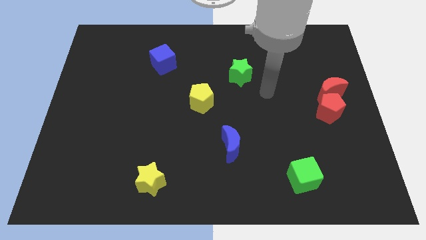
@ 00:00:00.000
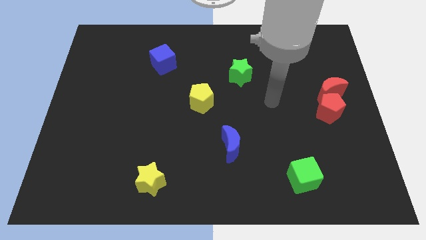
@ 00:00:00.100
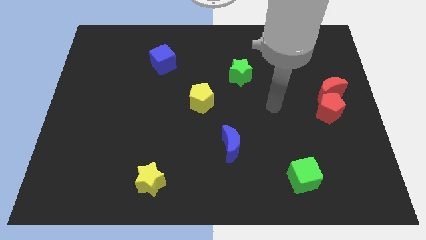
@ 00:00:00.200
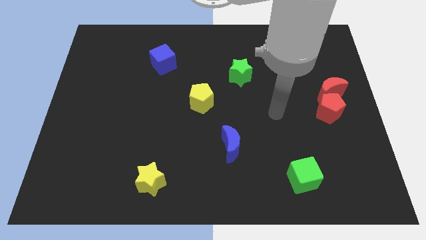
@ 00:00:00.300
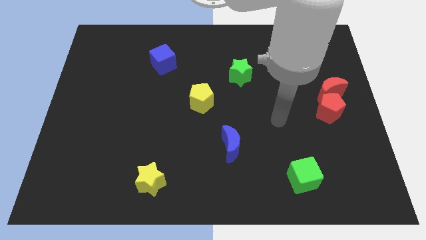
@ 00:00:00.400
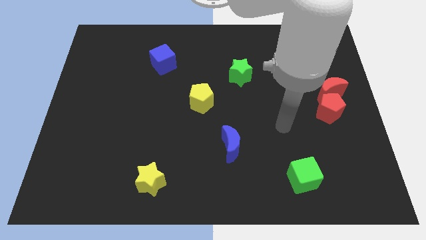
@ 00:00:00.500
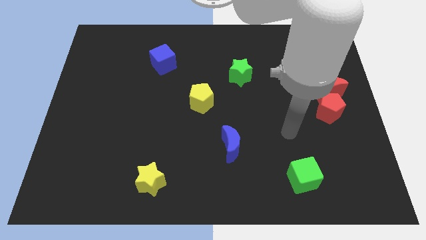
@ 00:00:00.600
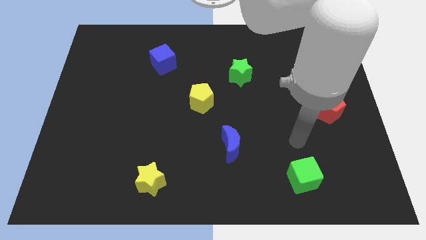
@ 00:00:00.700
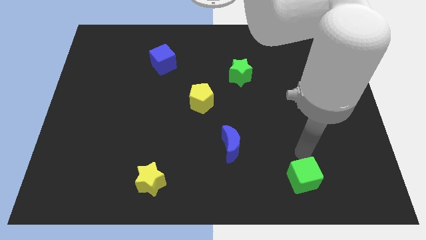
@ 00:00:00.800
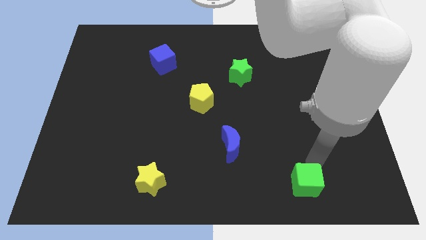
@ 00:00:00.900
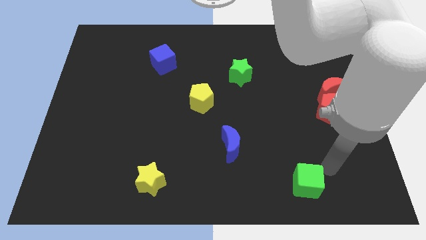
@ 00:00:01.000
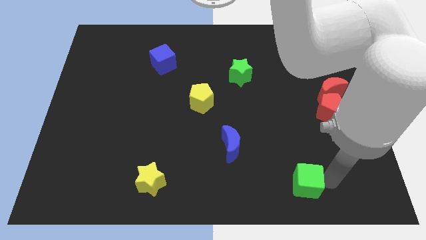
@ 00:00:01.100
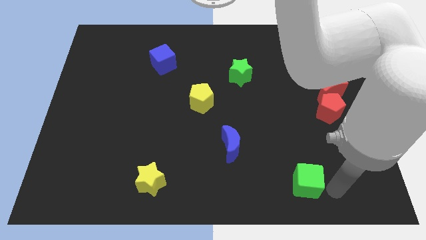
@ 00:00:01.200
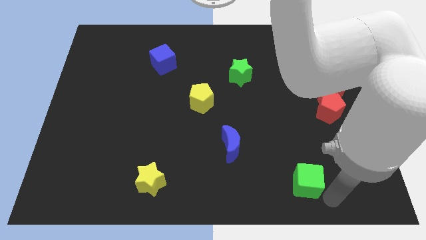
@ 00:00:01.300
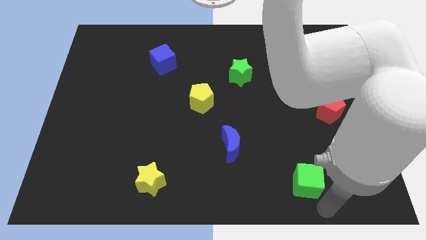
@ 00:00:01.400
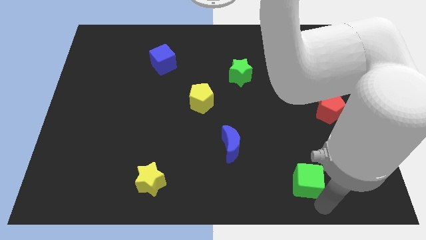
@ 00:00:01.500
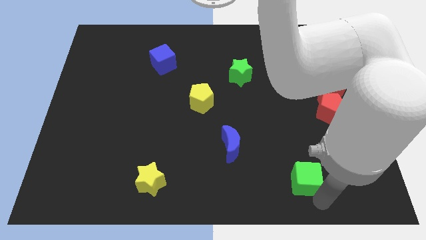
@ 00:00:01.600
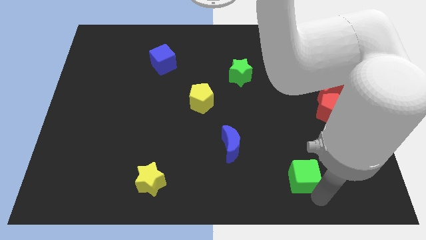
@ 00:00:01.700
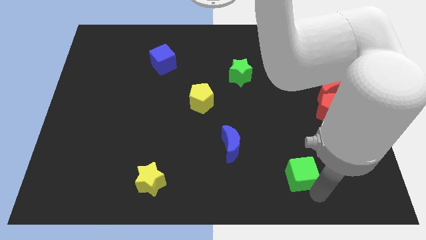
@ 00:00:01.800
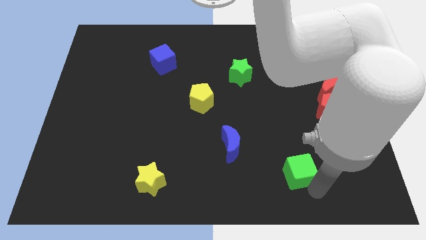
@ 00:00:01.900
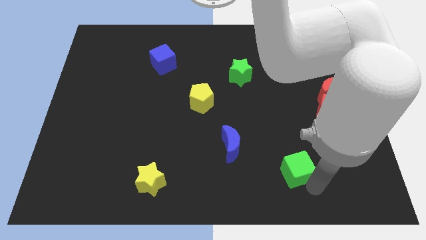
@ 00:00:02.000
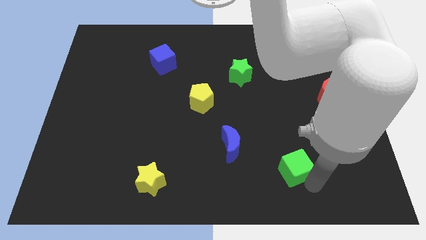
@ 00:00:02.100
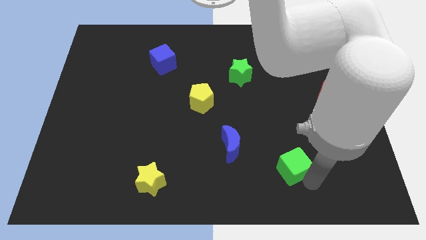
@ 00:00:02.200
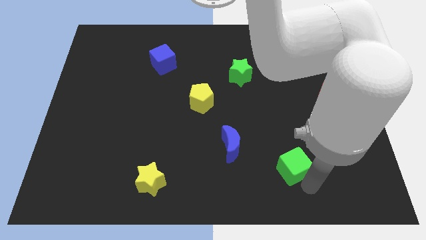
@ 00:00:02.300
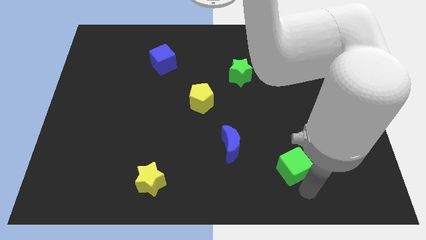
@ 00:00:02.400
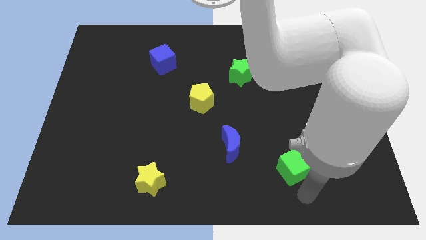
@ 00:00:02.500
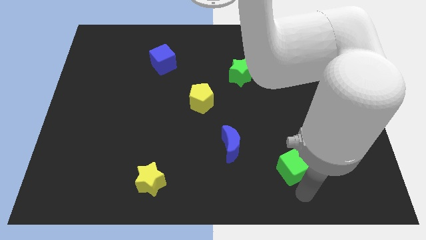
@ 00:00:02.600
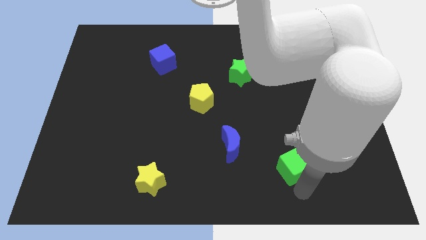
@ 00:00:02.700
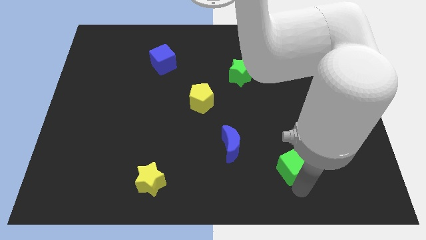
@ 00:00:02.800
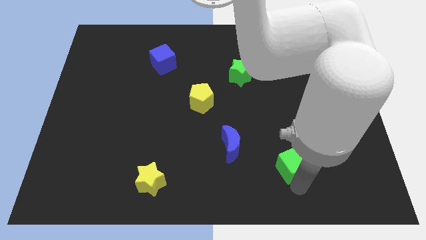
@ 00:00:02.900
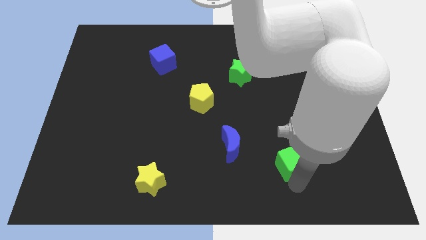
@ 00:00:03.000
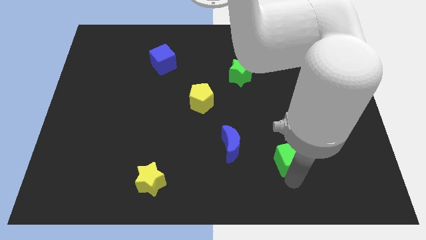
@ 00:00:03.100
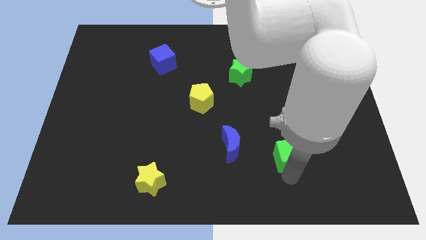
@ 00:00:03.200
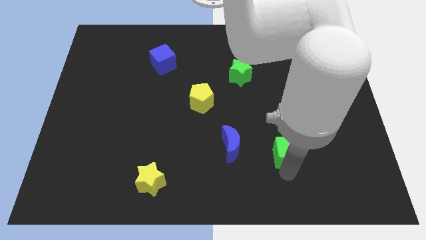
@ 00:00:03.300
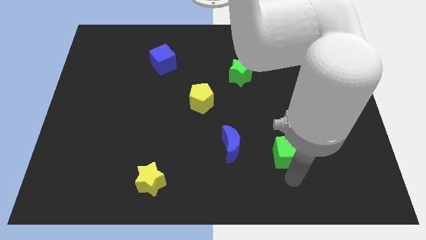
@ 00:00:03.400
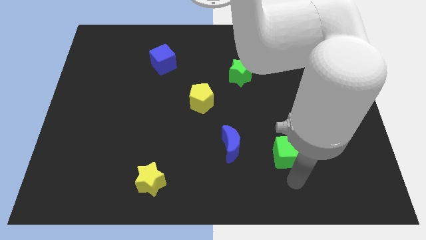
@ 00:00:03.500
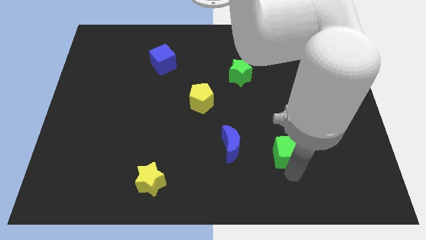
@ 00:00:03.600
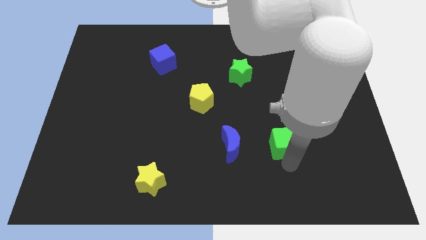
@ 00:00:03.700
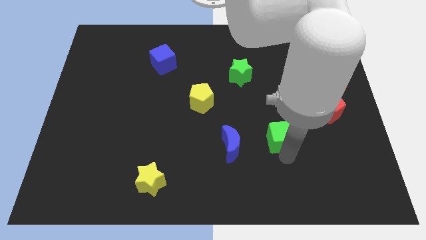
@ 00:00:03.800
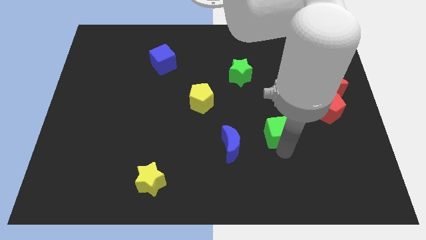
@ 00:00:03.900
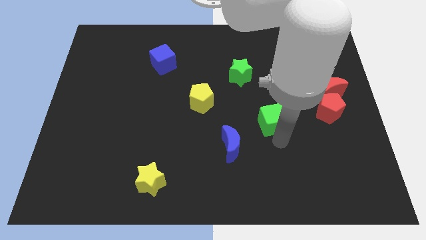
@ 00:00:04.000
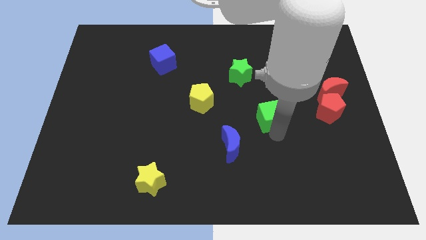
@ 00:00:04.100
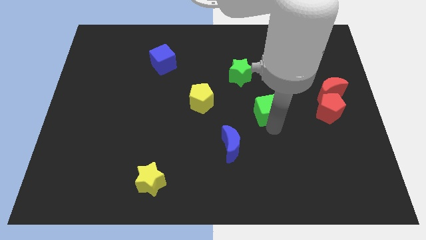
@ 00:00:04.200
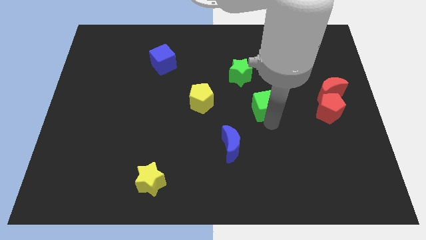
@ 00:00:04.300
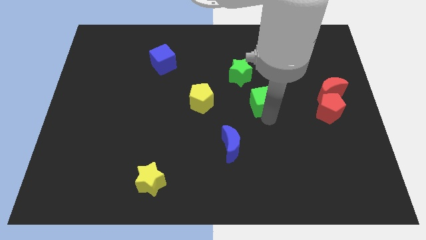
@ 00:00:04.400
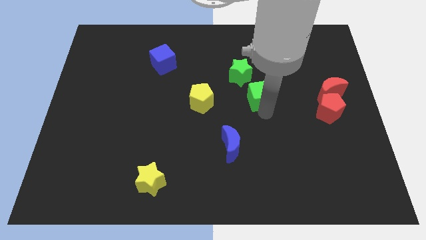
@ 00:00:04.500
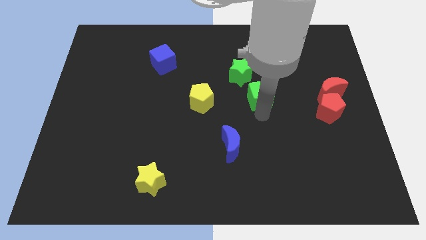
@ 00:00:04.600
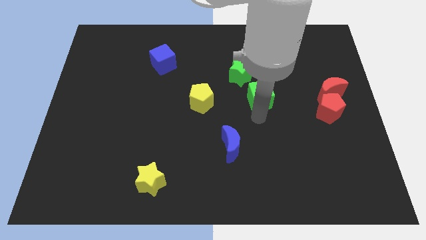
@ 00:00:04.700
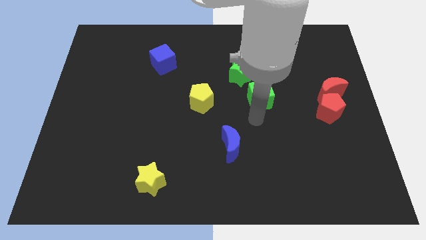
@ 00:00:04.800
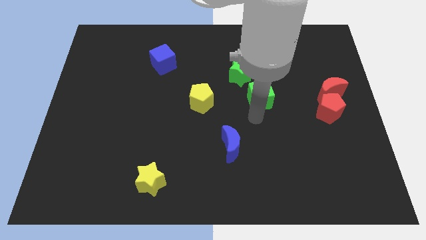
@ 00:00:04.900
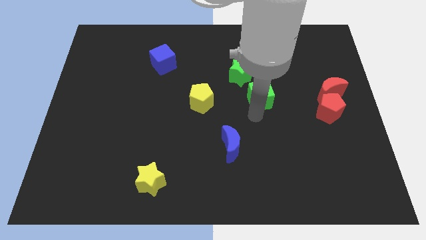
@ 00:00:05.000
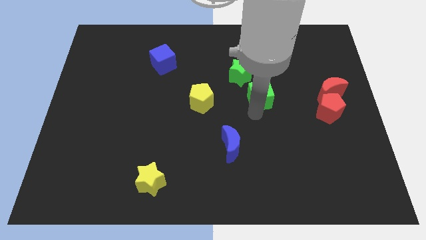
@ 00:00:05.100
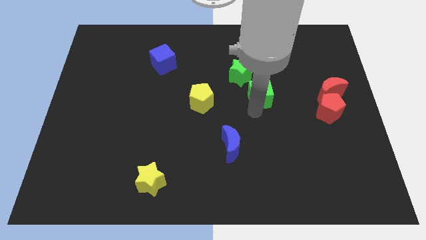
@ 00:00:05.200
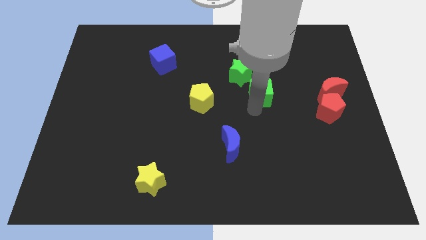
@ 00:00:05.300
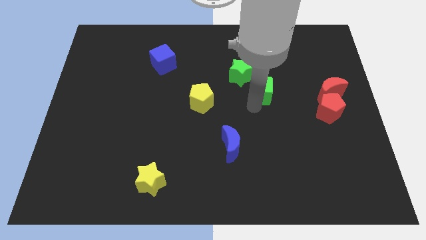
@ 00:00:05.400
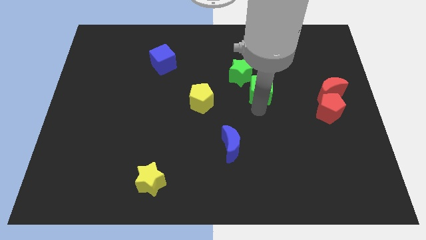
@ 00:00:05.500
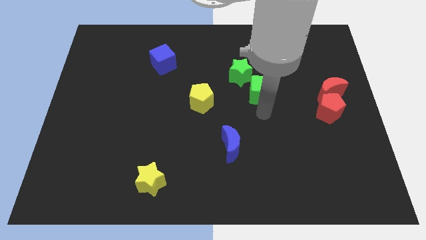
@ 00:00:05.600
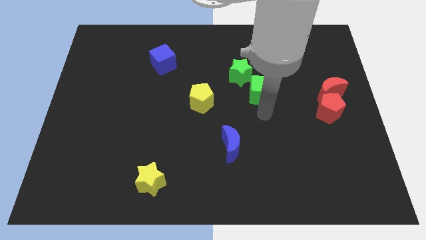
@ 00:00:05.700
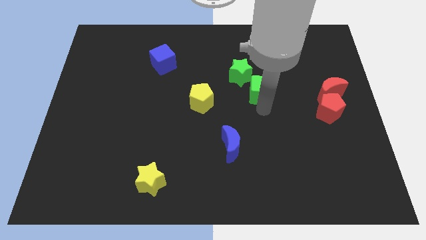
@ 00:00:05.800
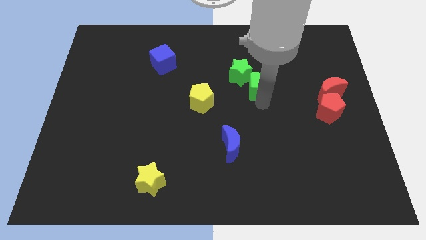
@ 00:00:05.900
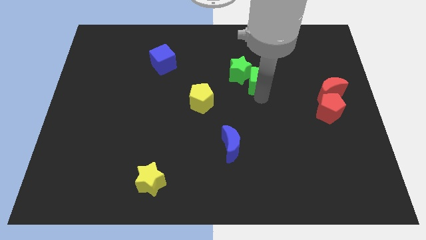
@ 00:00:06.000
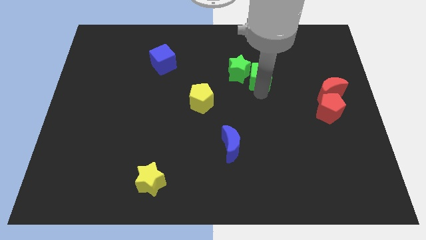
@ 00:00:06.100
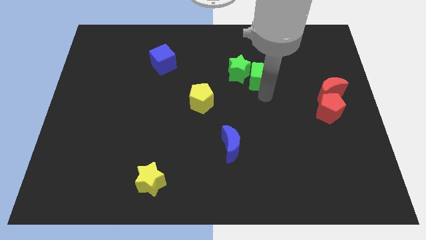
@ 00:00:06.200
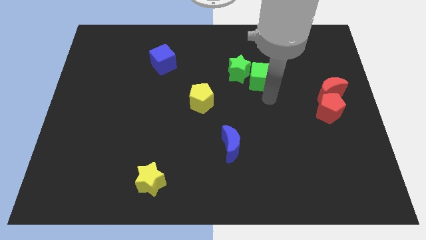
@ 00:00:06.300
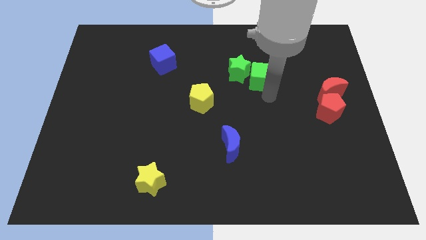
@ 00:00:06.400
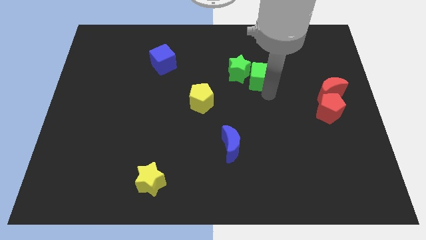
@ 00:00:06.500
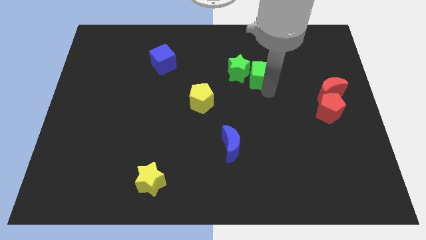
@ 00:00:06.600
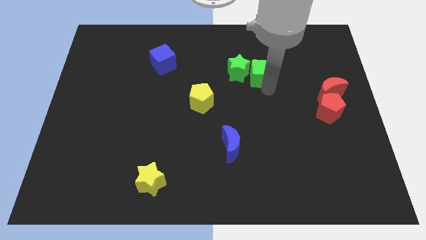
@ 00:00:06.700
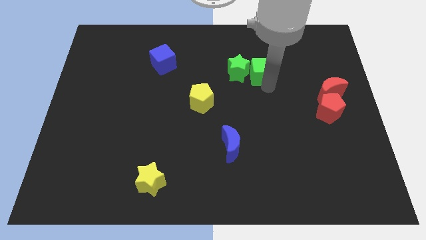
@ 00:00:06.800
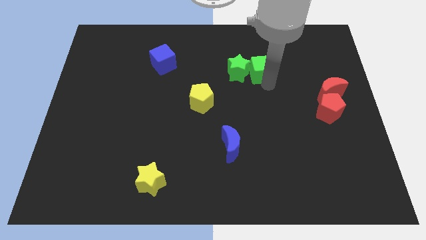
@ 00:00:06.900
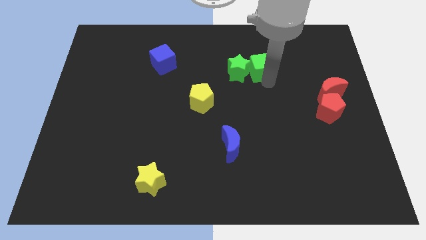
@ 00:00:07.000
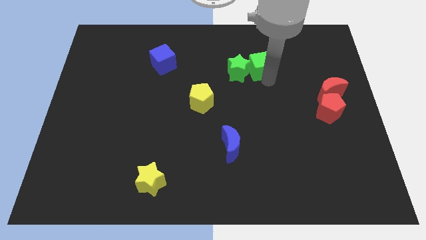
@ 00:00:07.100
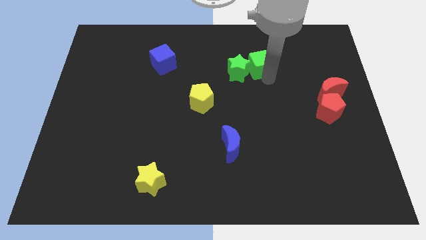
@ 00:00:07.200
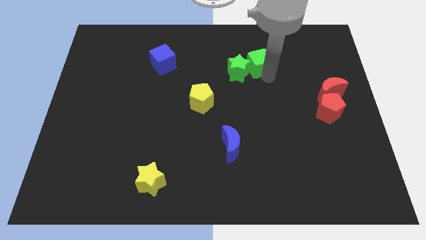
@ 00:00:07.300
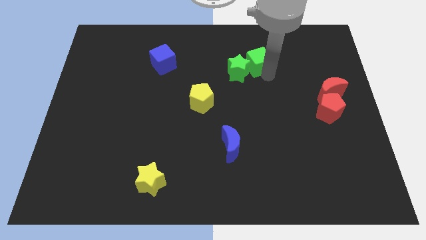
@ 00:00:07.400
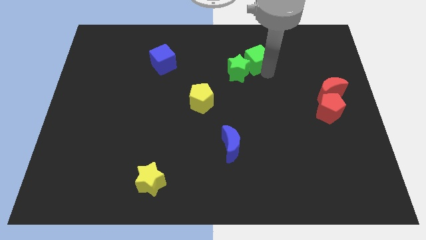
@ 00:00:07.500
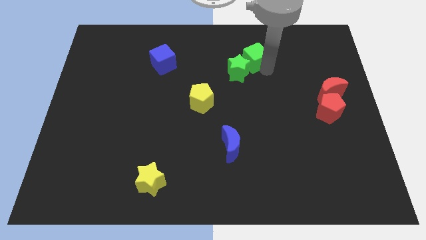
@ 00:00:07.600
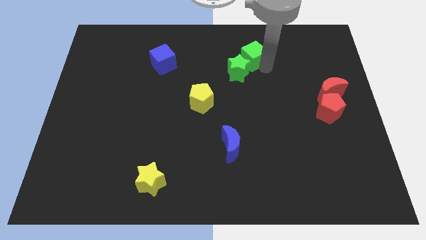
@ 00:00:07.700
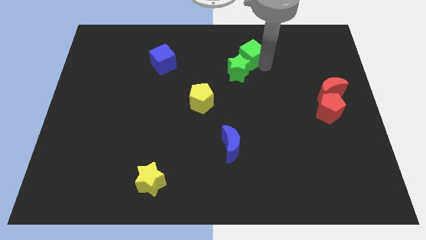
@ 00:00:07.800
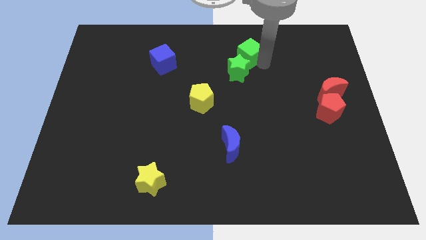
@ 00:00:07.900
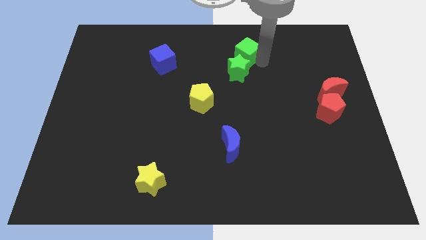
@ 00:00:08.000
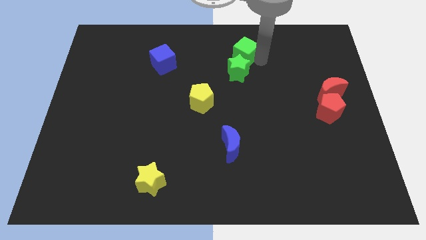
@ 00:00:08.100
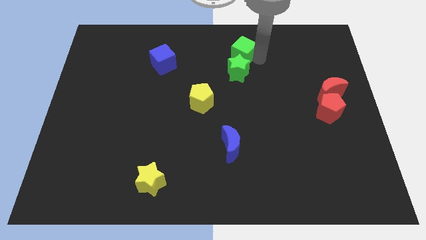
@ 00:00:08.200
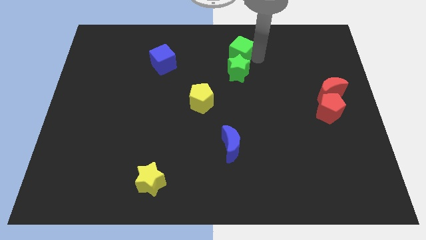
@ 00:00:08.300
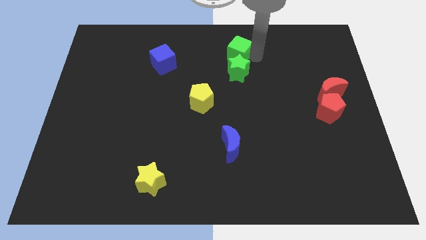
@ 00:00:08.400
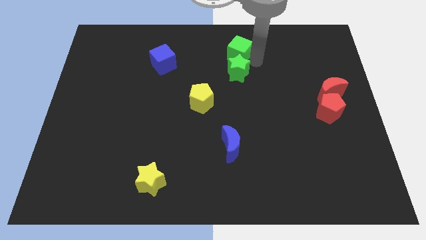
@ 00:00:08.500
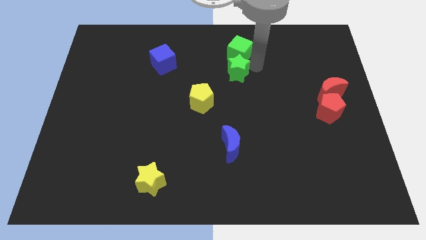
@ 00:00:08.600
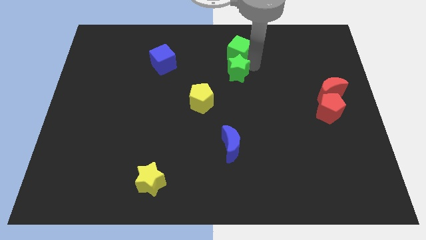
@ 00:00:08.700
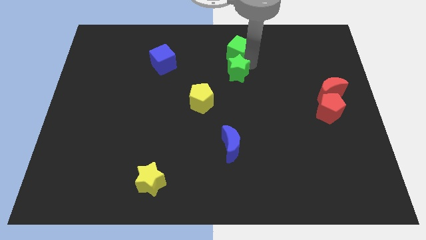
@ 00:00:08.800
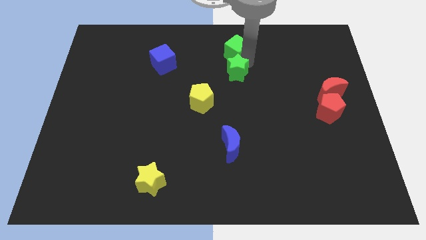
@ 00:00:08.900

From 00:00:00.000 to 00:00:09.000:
slide the green cube to the top side
